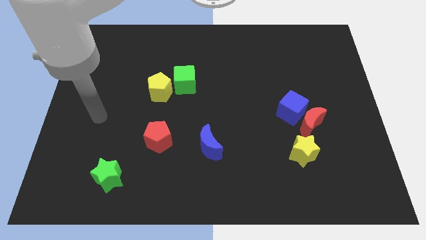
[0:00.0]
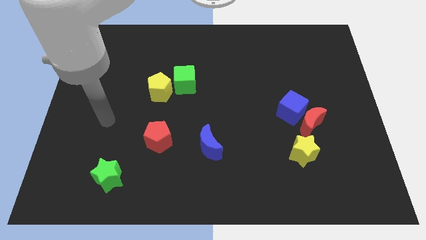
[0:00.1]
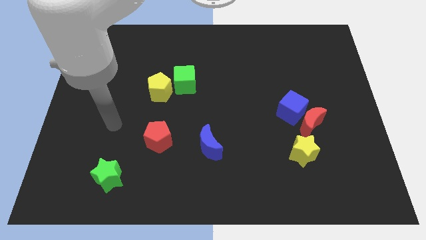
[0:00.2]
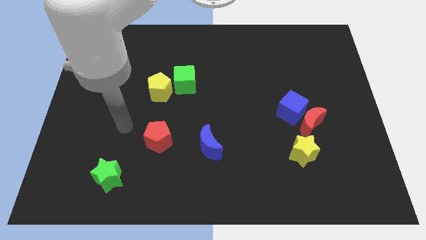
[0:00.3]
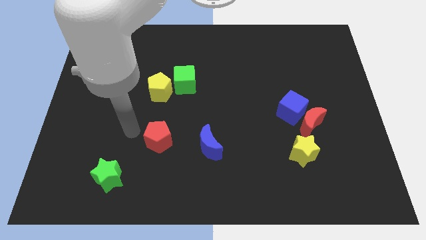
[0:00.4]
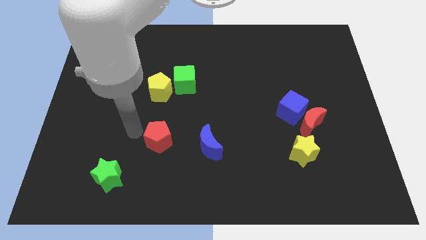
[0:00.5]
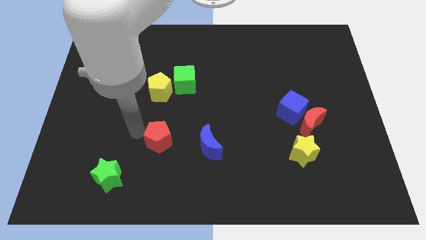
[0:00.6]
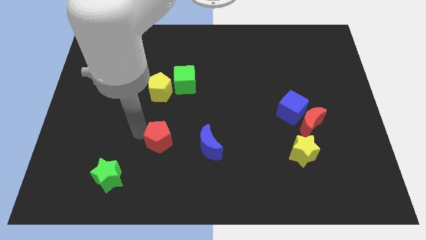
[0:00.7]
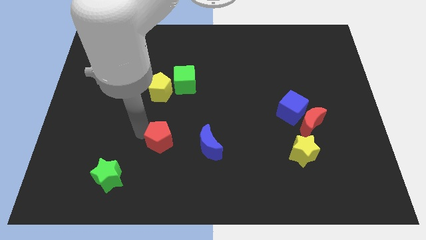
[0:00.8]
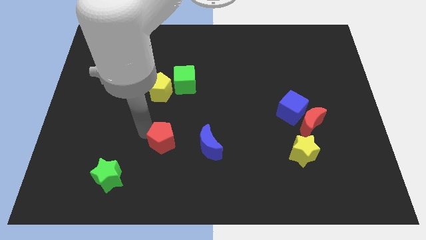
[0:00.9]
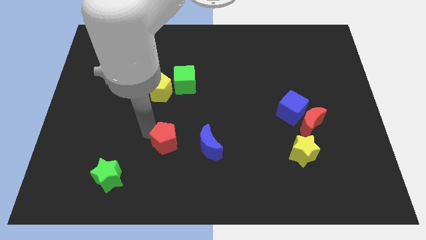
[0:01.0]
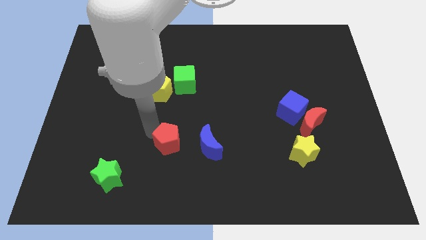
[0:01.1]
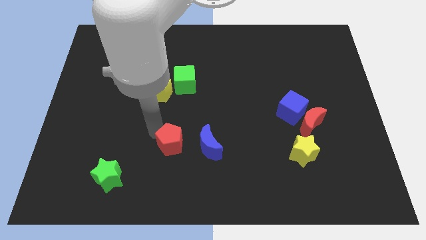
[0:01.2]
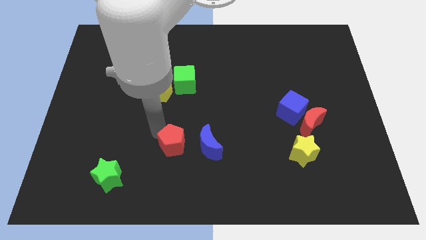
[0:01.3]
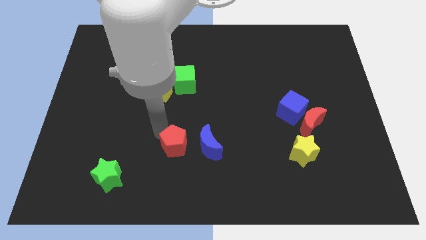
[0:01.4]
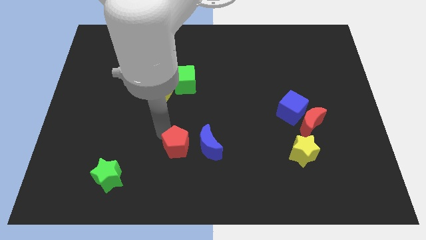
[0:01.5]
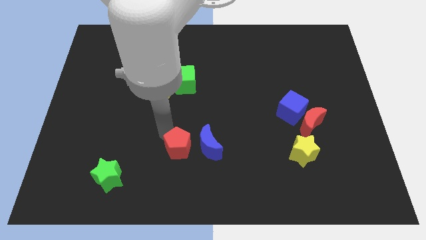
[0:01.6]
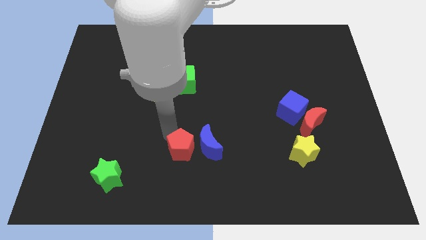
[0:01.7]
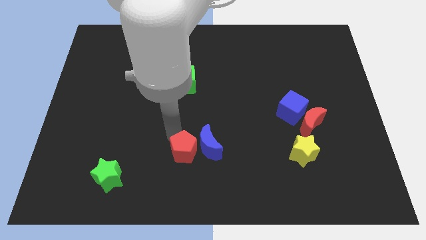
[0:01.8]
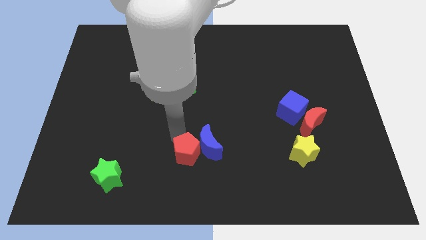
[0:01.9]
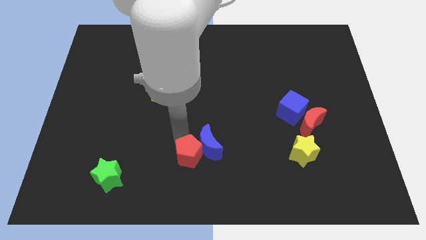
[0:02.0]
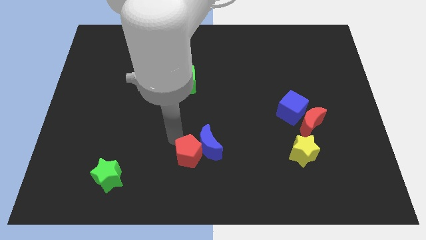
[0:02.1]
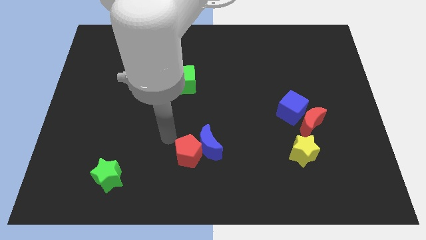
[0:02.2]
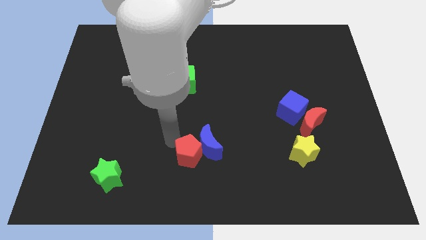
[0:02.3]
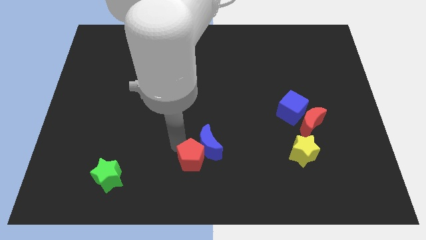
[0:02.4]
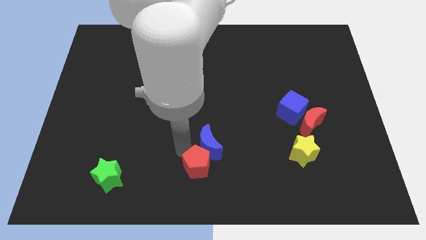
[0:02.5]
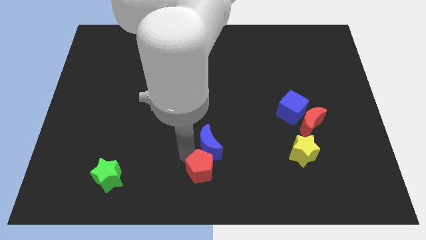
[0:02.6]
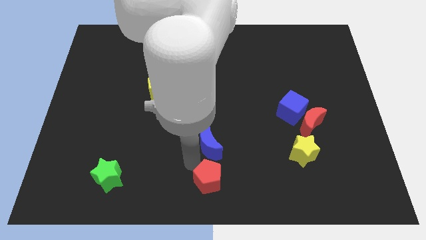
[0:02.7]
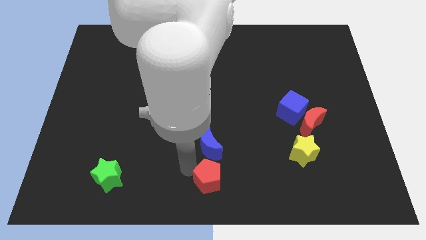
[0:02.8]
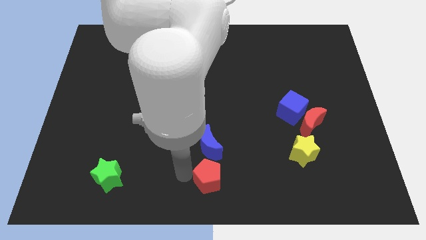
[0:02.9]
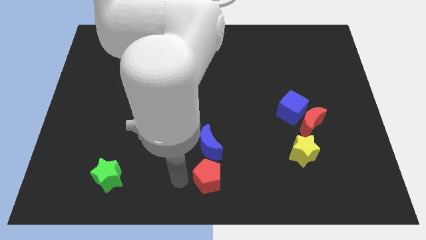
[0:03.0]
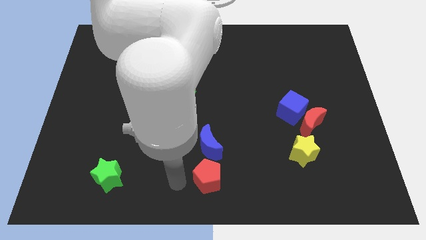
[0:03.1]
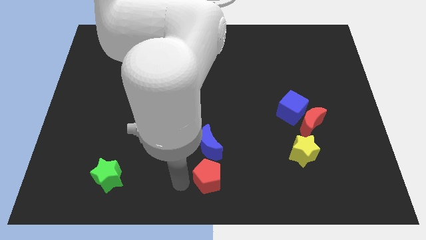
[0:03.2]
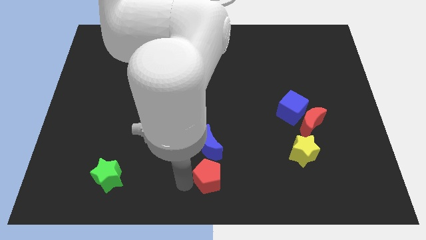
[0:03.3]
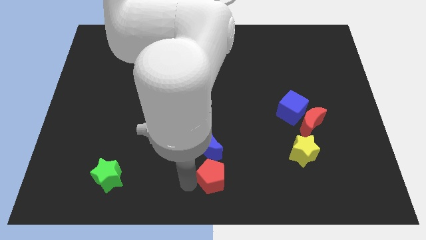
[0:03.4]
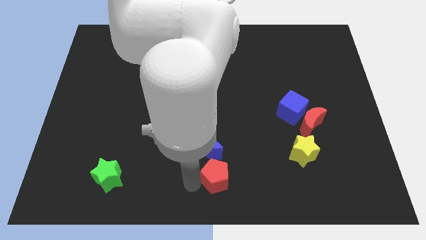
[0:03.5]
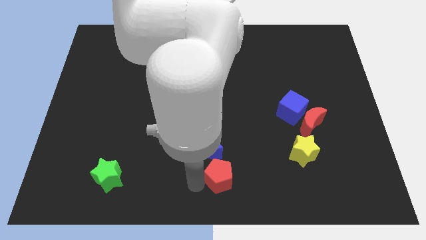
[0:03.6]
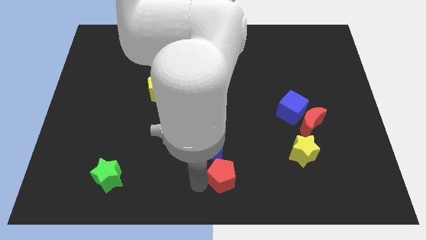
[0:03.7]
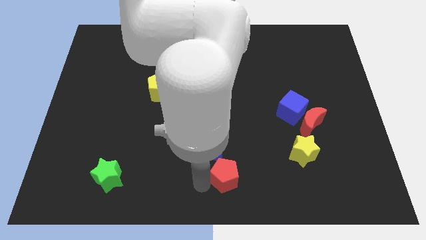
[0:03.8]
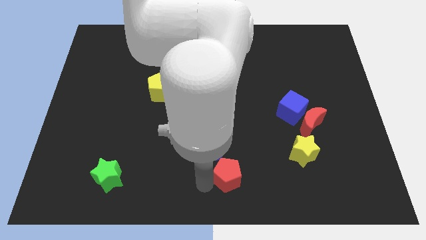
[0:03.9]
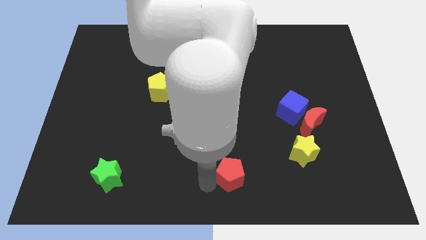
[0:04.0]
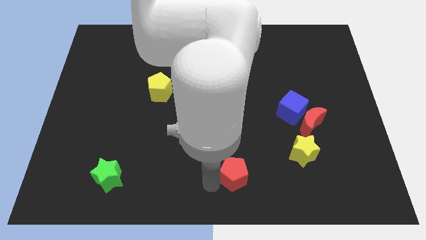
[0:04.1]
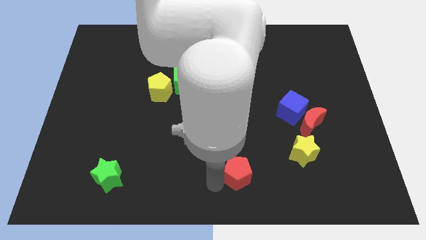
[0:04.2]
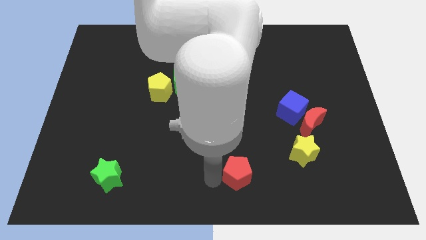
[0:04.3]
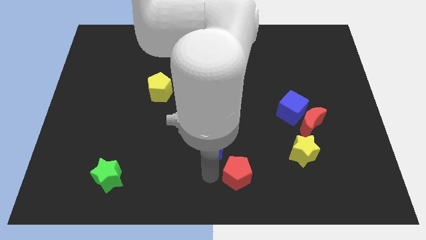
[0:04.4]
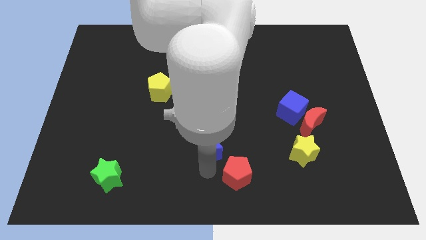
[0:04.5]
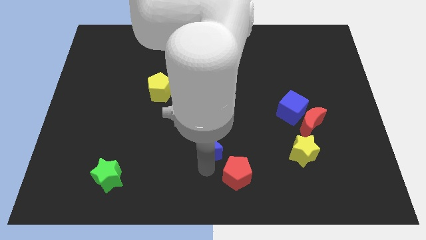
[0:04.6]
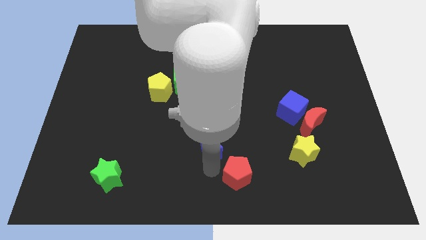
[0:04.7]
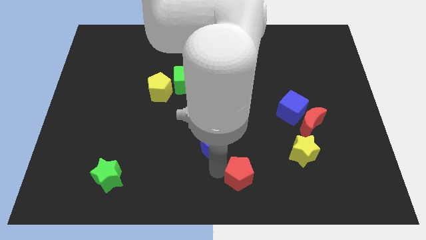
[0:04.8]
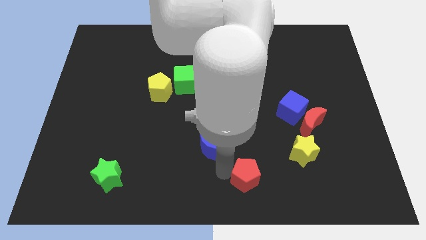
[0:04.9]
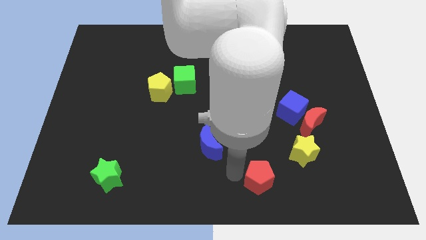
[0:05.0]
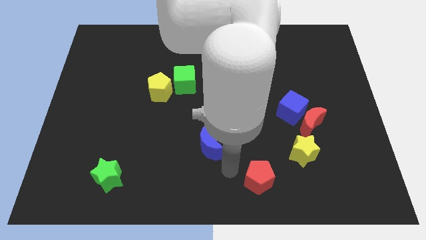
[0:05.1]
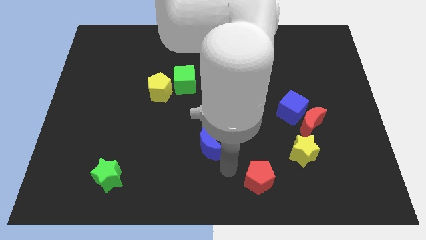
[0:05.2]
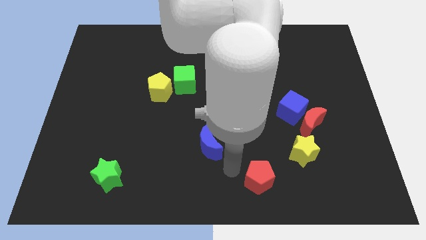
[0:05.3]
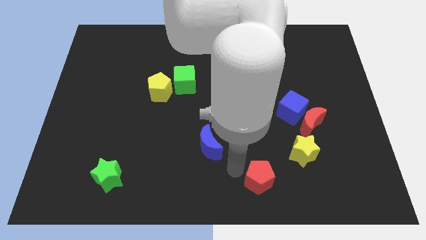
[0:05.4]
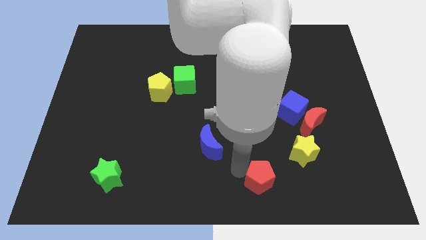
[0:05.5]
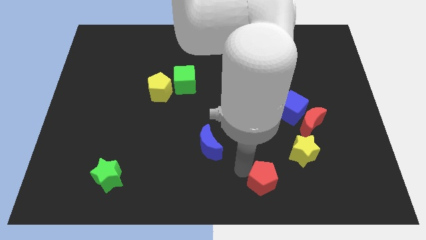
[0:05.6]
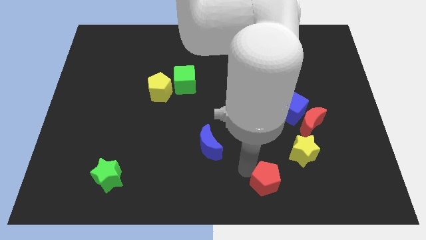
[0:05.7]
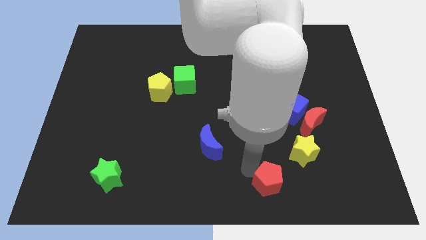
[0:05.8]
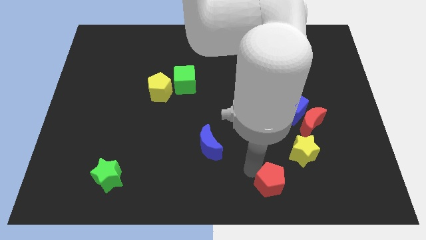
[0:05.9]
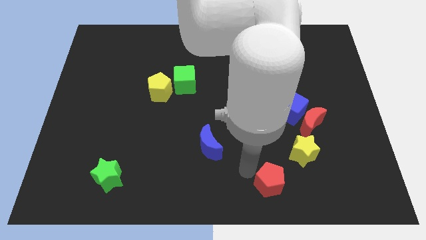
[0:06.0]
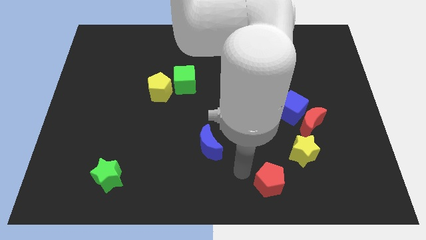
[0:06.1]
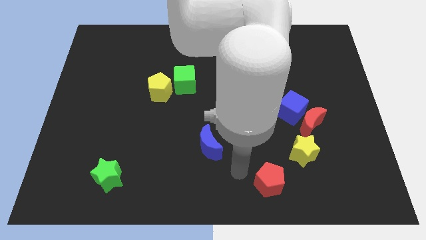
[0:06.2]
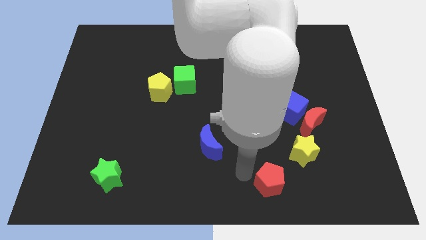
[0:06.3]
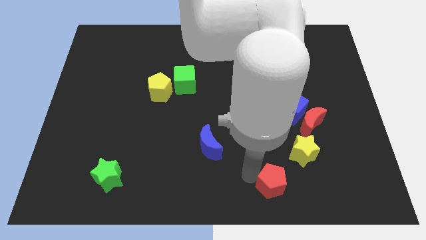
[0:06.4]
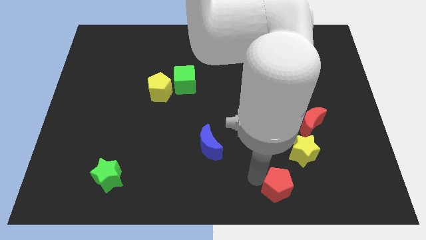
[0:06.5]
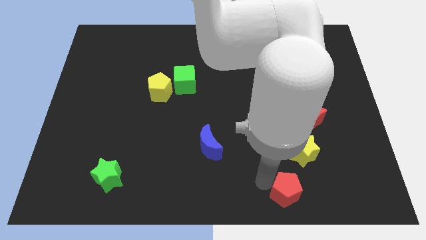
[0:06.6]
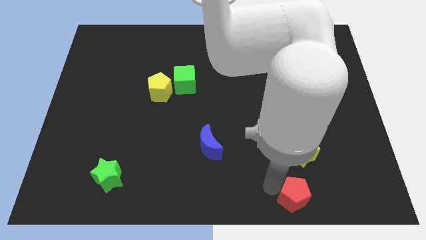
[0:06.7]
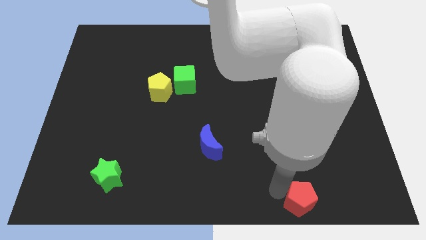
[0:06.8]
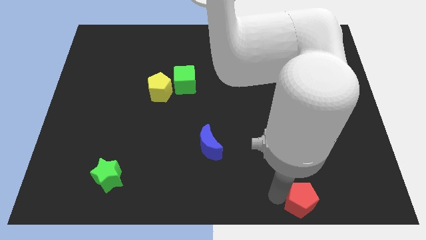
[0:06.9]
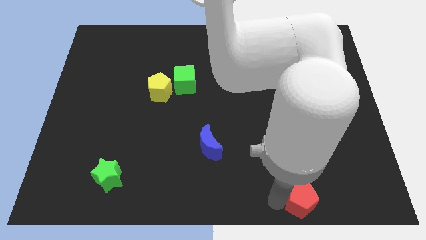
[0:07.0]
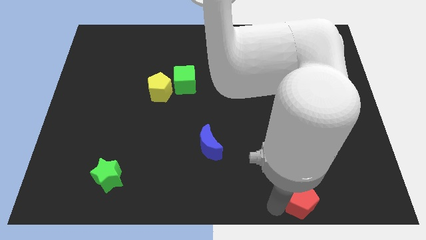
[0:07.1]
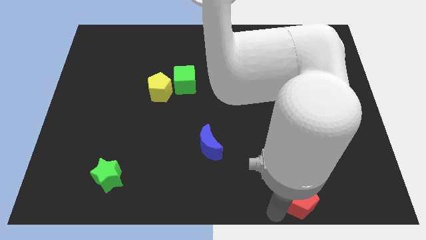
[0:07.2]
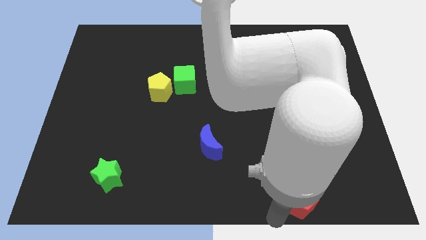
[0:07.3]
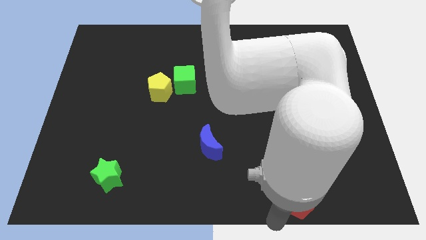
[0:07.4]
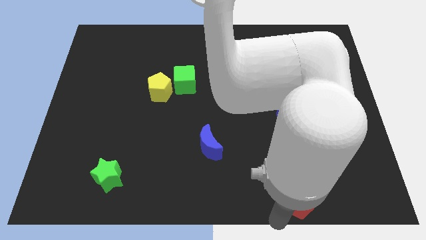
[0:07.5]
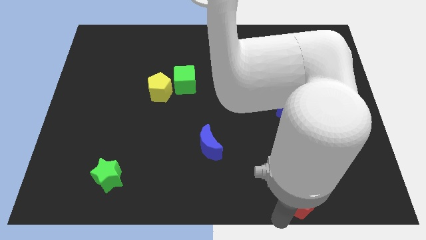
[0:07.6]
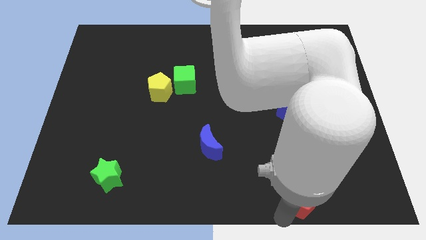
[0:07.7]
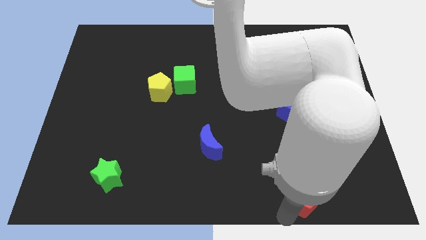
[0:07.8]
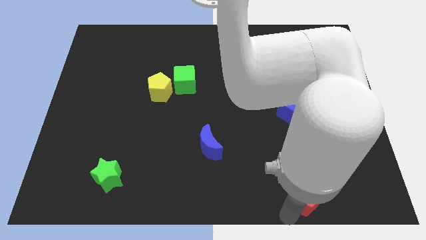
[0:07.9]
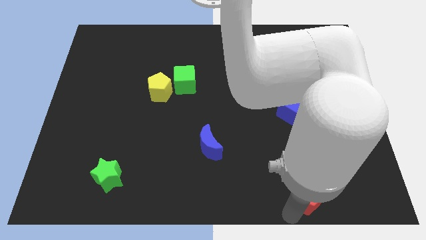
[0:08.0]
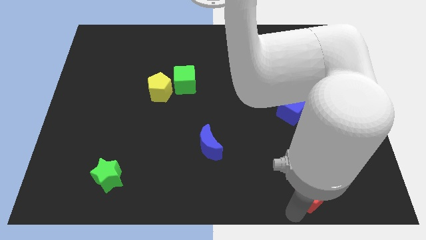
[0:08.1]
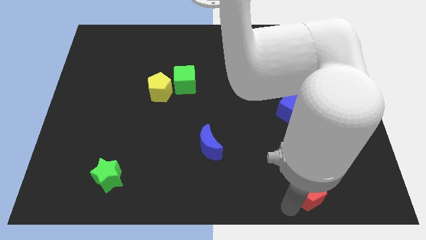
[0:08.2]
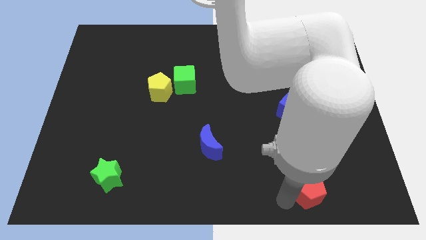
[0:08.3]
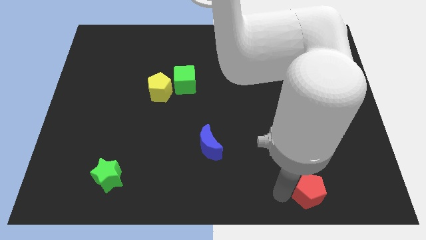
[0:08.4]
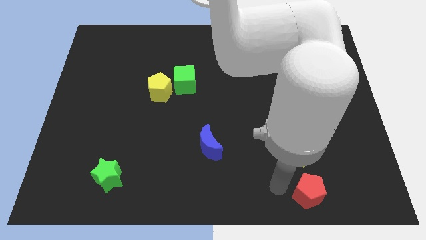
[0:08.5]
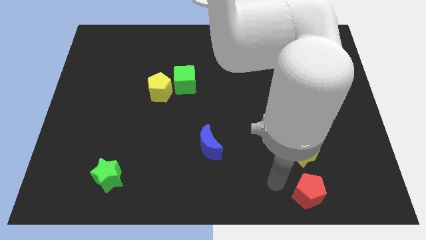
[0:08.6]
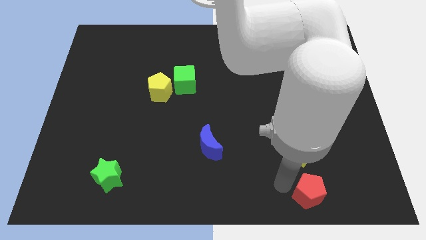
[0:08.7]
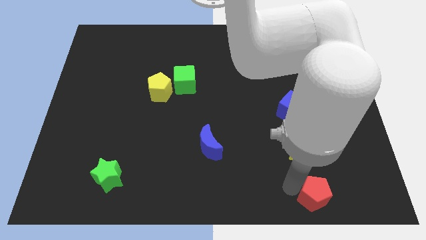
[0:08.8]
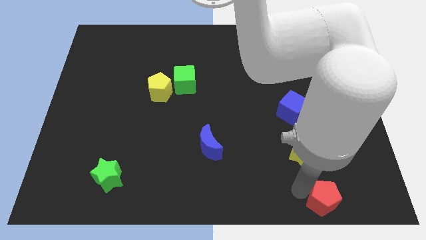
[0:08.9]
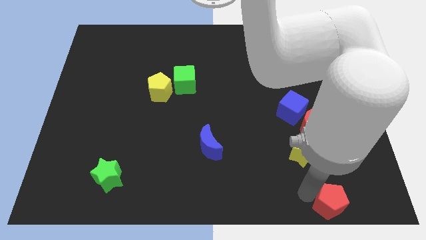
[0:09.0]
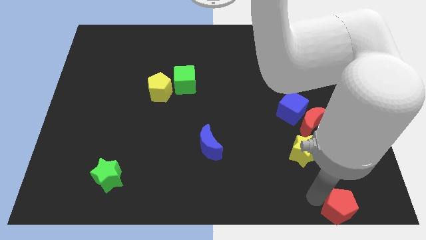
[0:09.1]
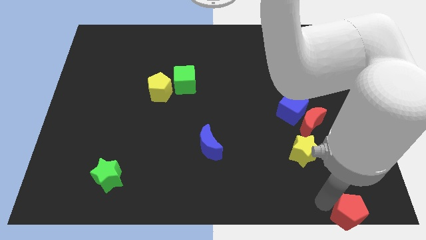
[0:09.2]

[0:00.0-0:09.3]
move the red pentagon to the bottom right
